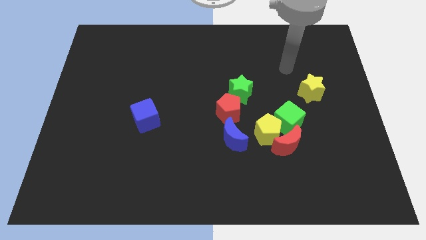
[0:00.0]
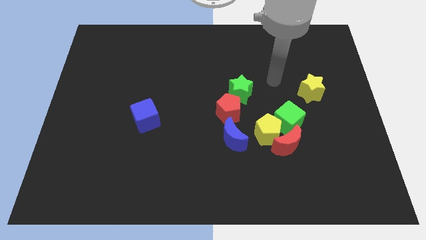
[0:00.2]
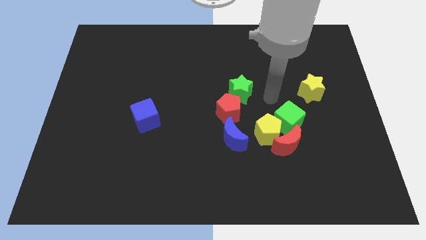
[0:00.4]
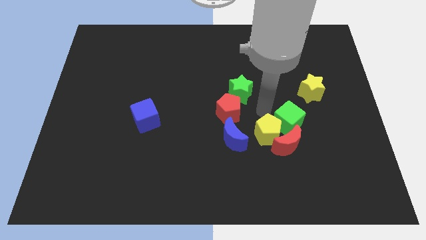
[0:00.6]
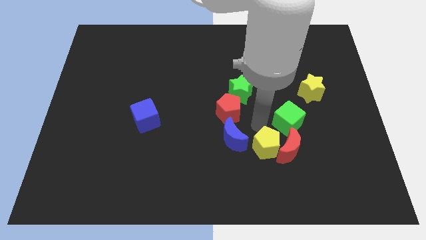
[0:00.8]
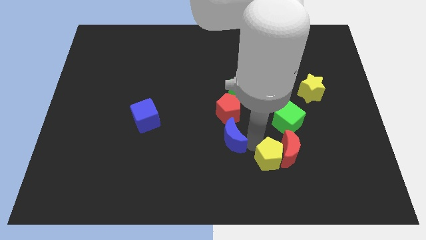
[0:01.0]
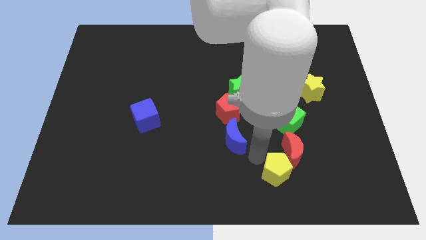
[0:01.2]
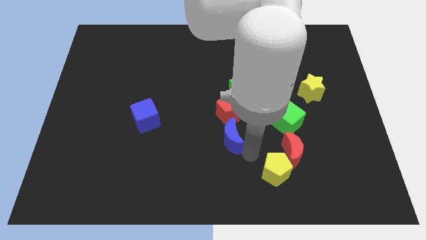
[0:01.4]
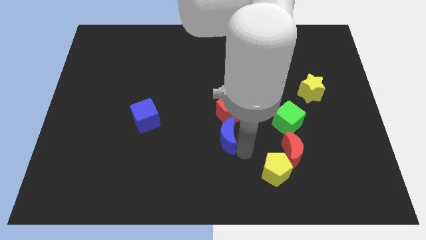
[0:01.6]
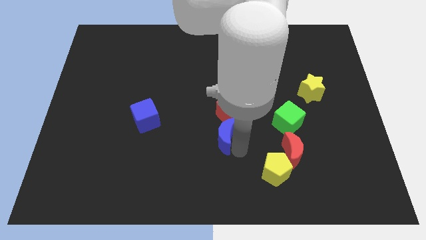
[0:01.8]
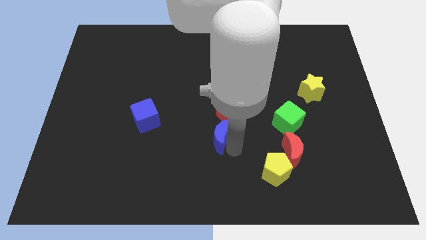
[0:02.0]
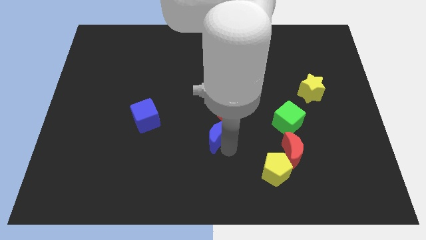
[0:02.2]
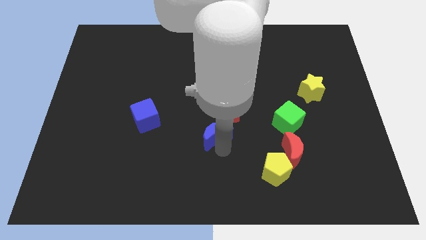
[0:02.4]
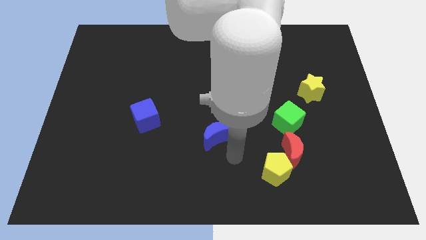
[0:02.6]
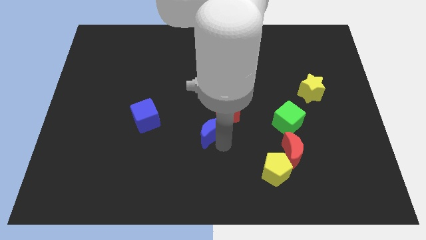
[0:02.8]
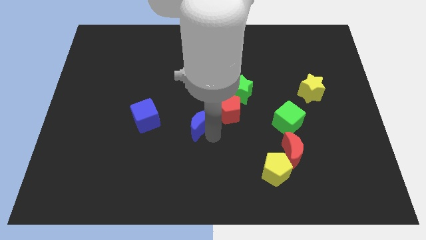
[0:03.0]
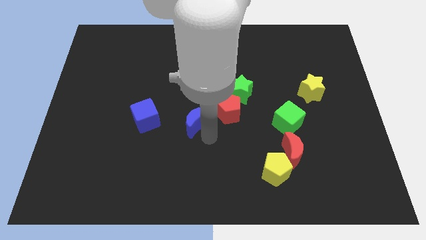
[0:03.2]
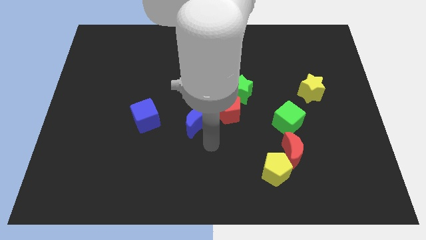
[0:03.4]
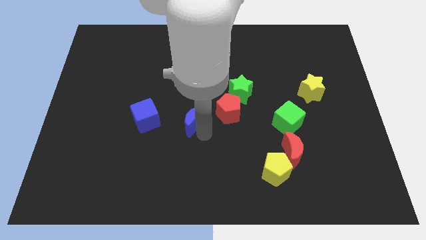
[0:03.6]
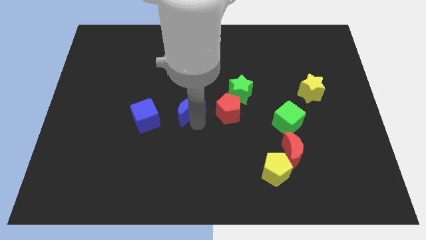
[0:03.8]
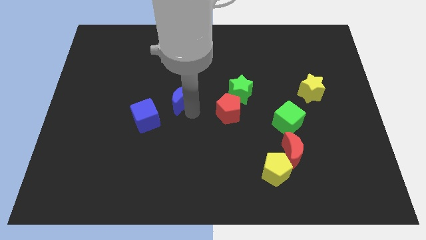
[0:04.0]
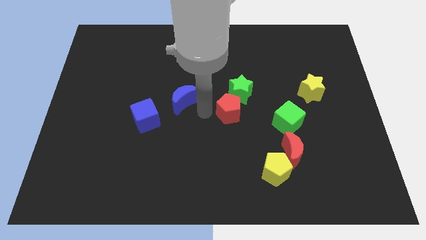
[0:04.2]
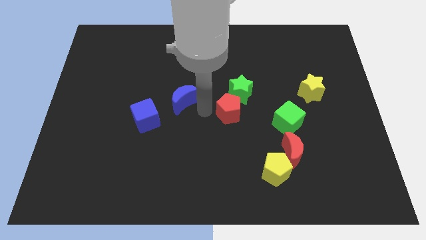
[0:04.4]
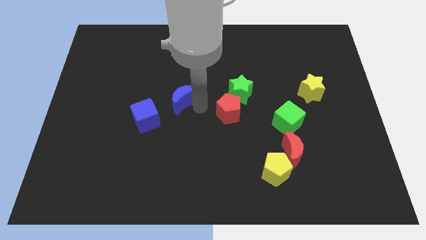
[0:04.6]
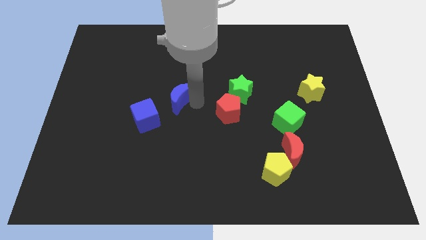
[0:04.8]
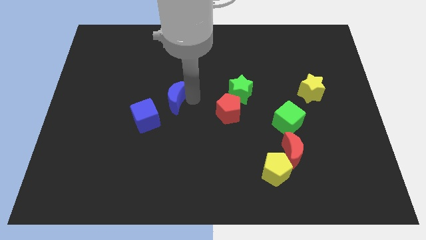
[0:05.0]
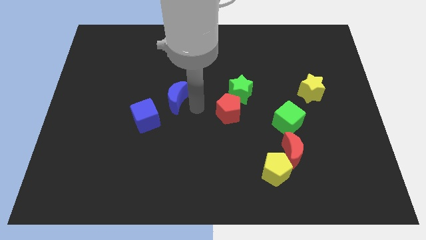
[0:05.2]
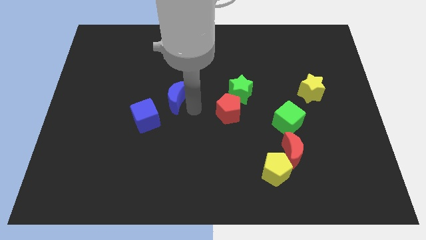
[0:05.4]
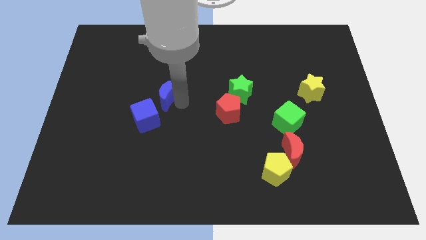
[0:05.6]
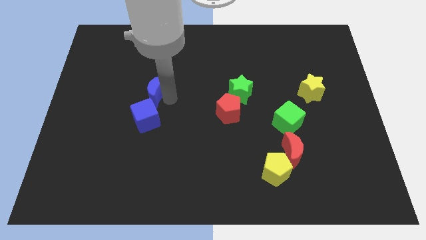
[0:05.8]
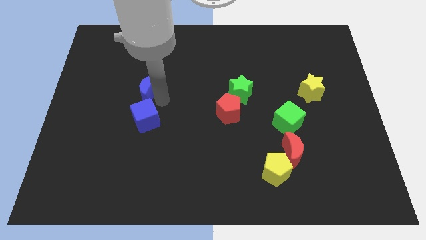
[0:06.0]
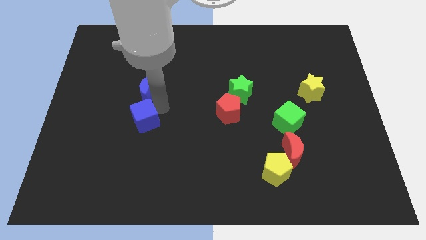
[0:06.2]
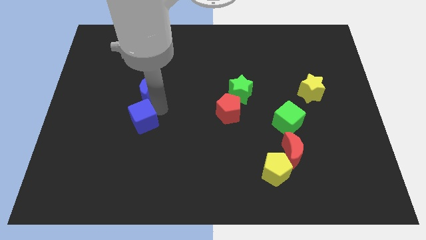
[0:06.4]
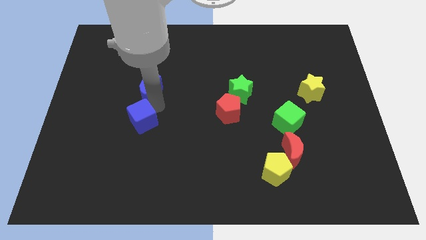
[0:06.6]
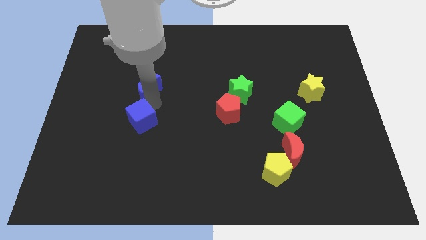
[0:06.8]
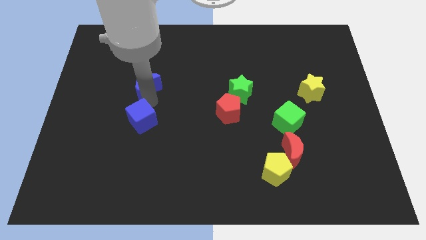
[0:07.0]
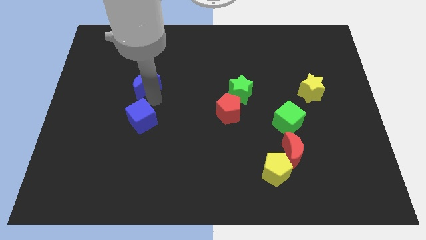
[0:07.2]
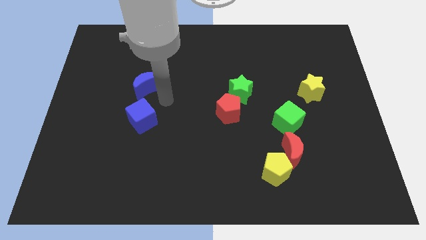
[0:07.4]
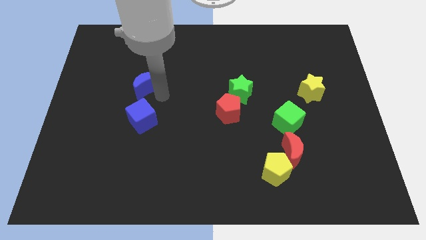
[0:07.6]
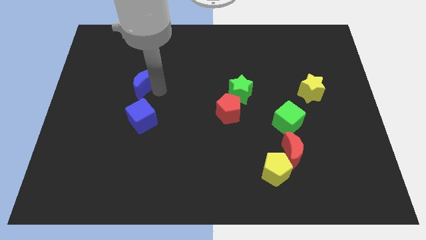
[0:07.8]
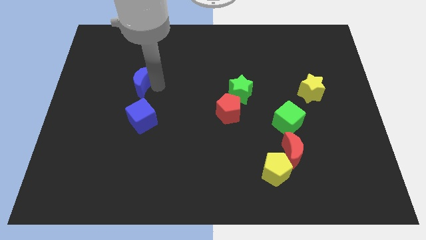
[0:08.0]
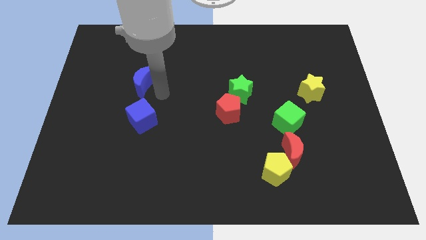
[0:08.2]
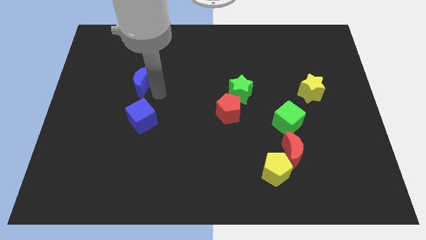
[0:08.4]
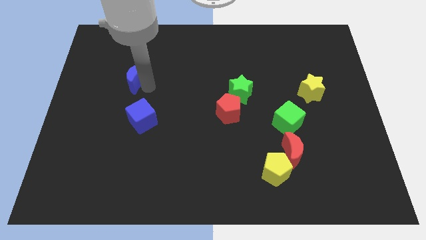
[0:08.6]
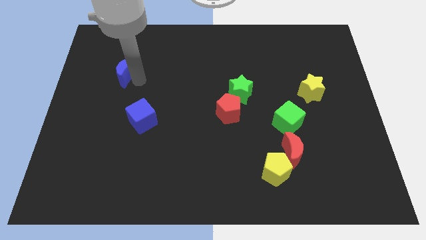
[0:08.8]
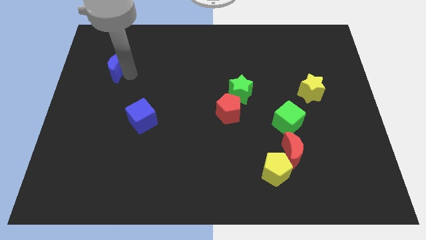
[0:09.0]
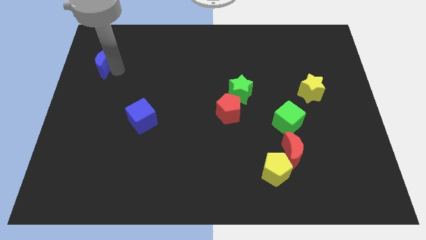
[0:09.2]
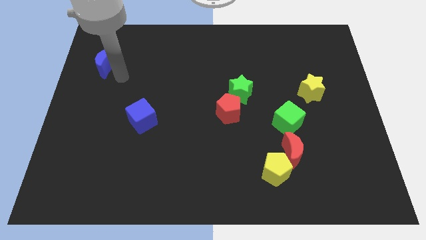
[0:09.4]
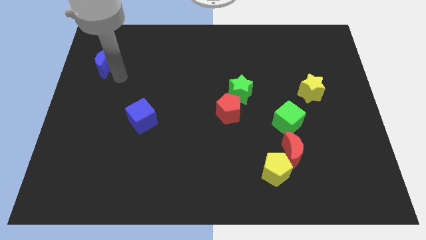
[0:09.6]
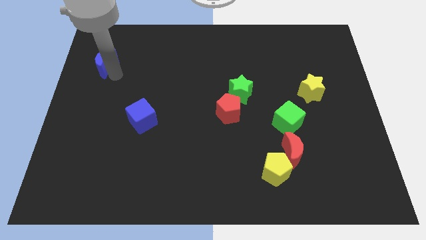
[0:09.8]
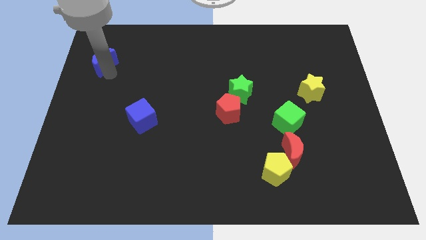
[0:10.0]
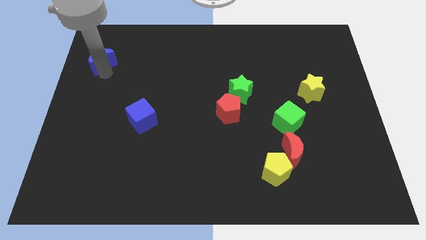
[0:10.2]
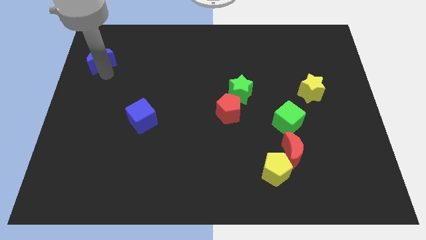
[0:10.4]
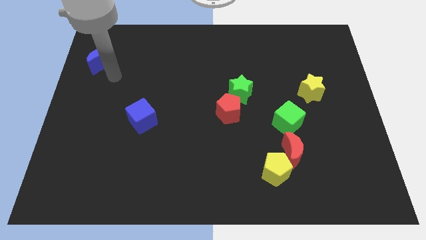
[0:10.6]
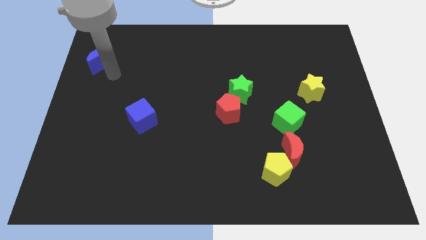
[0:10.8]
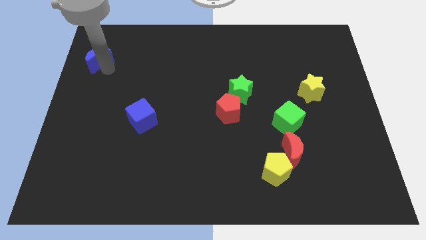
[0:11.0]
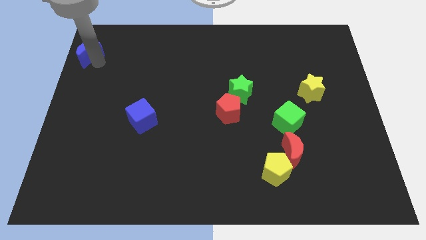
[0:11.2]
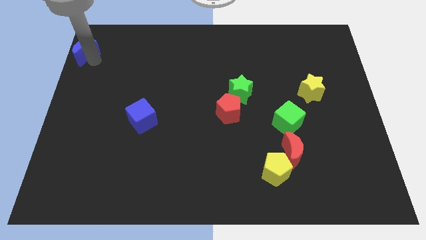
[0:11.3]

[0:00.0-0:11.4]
slide the blue moon to the top left
